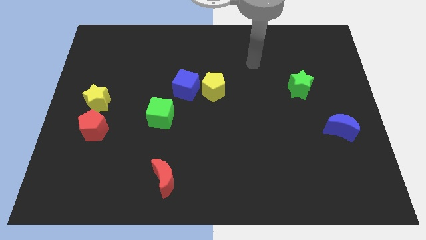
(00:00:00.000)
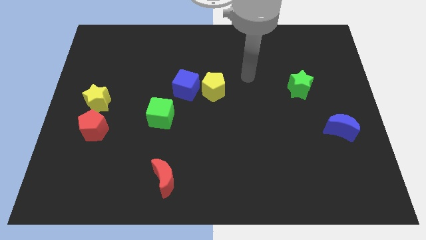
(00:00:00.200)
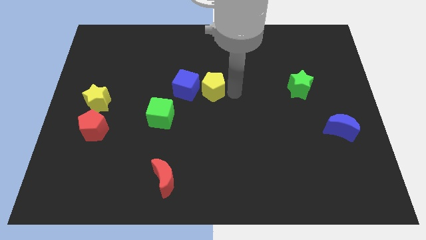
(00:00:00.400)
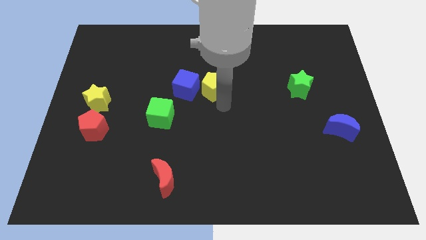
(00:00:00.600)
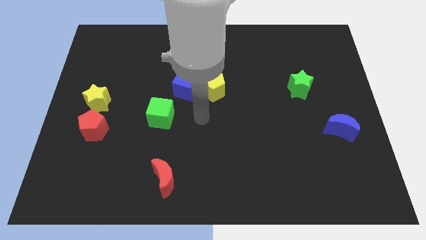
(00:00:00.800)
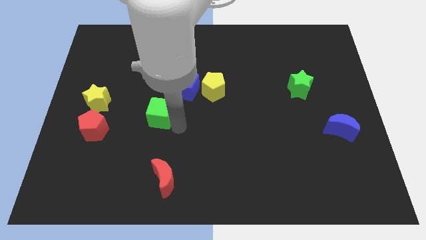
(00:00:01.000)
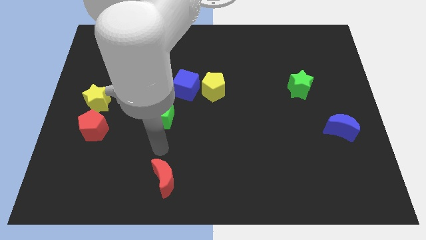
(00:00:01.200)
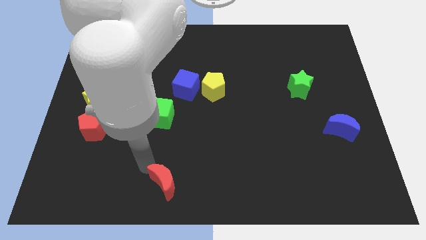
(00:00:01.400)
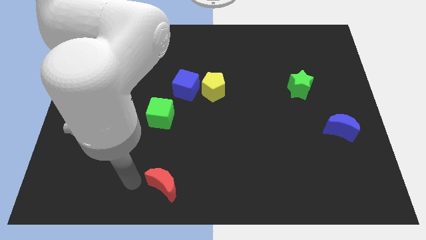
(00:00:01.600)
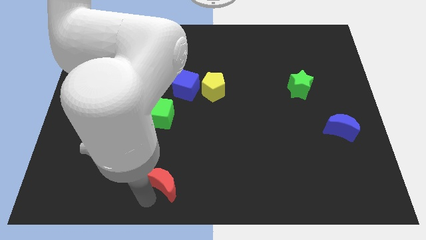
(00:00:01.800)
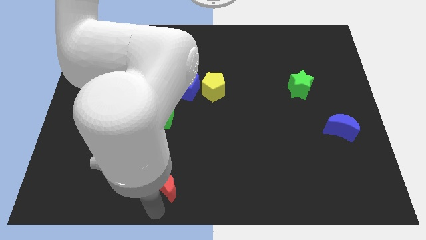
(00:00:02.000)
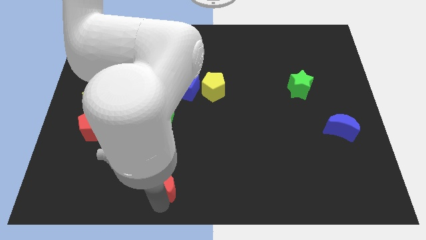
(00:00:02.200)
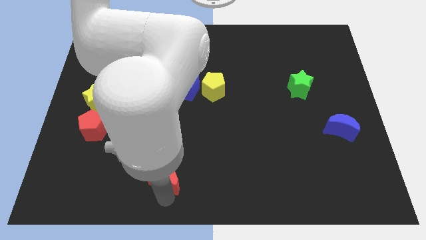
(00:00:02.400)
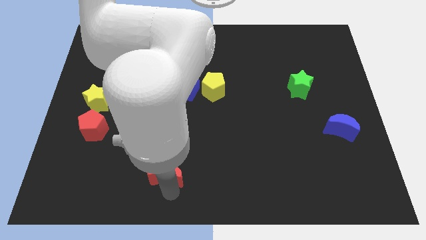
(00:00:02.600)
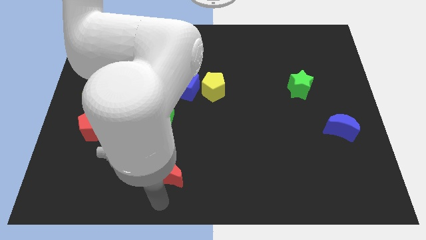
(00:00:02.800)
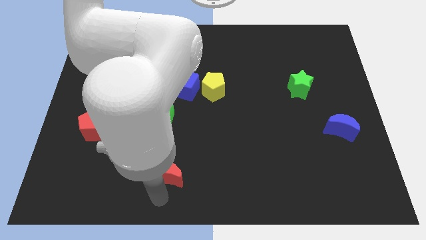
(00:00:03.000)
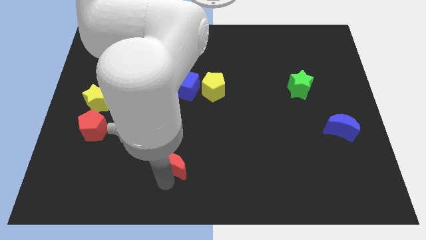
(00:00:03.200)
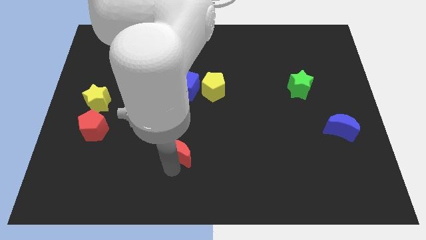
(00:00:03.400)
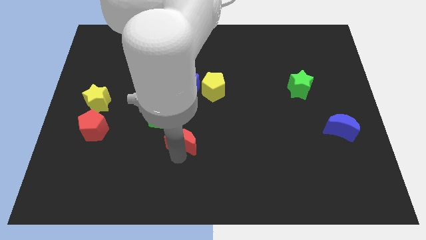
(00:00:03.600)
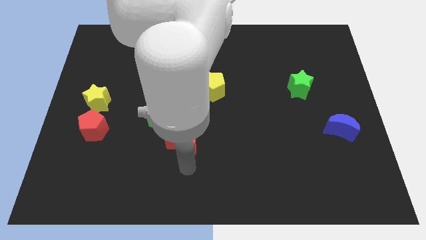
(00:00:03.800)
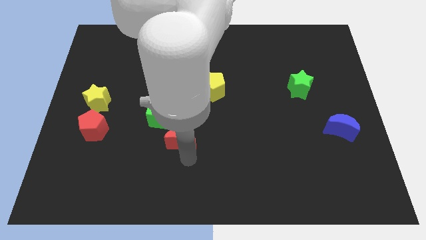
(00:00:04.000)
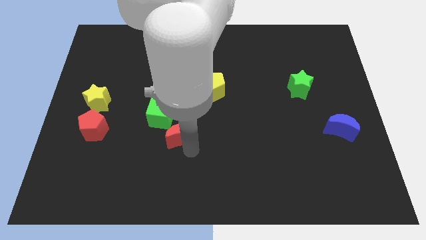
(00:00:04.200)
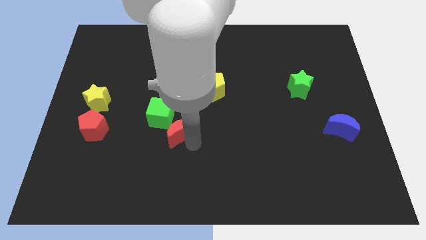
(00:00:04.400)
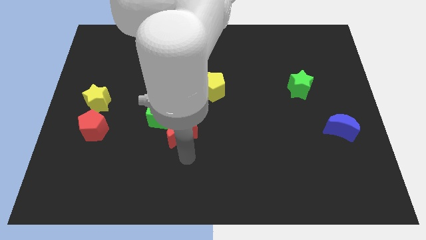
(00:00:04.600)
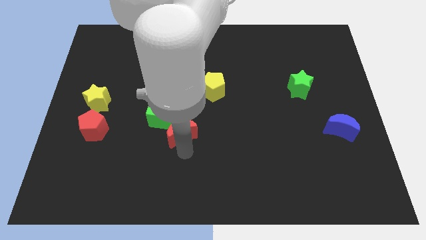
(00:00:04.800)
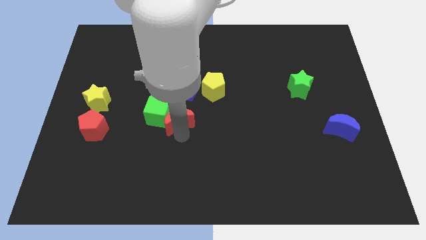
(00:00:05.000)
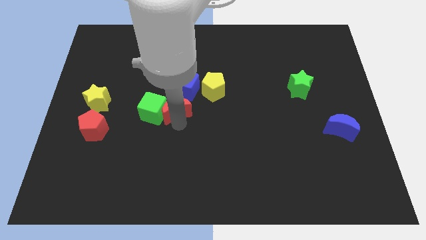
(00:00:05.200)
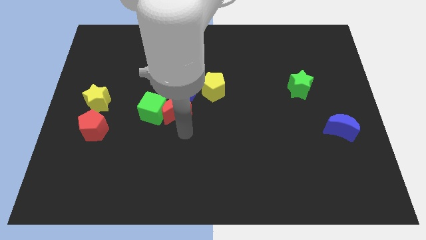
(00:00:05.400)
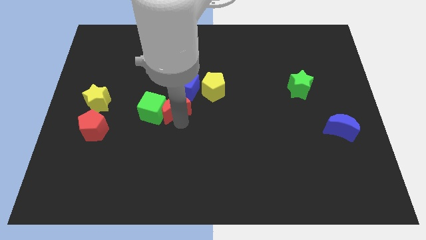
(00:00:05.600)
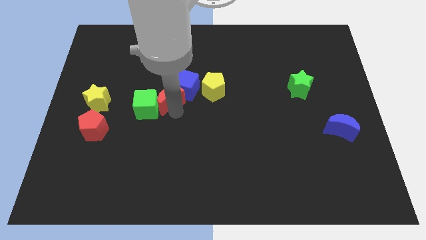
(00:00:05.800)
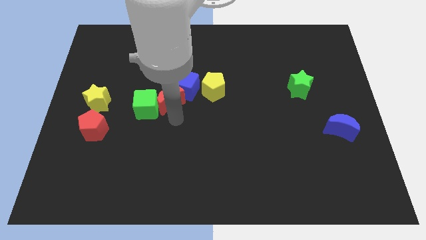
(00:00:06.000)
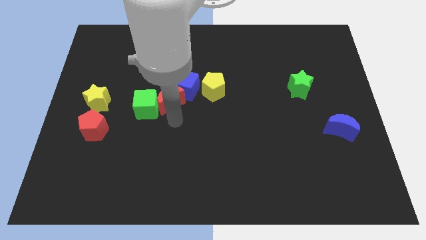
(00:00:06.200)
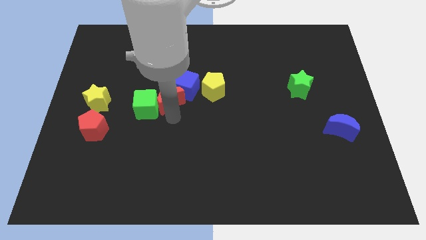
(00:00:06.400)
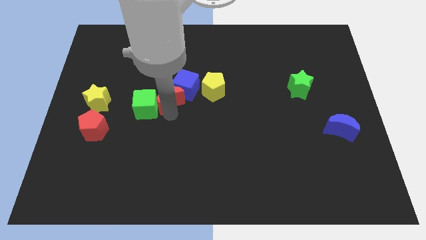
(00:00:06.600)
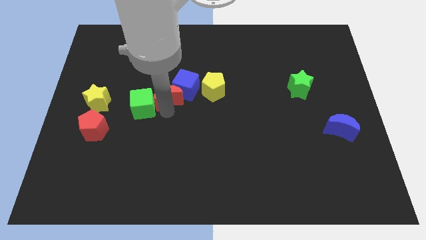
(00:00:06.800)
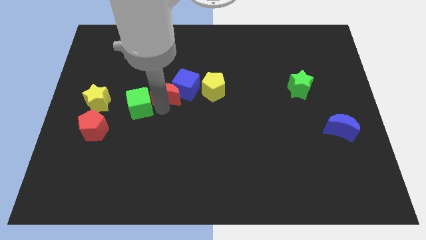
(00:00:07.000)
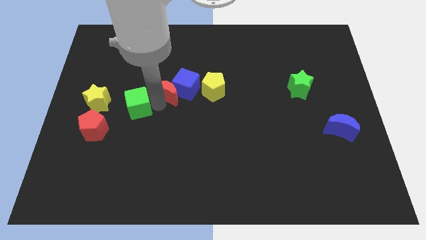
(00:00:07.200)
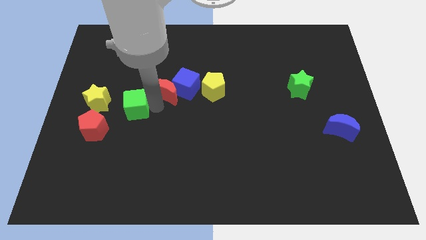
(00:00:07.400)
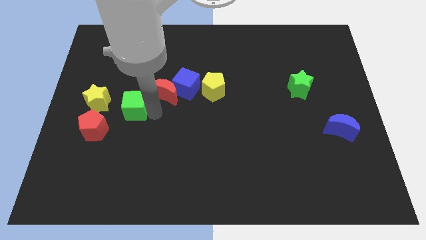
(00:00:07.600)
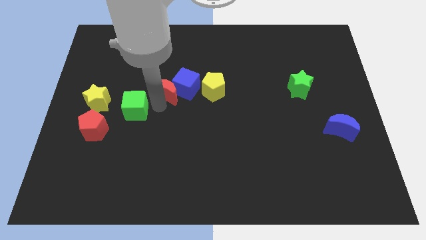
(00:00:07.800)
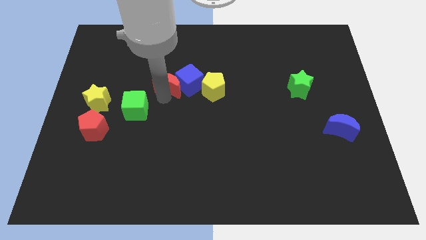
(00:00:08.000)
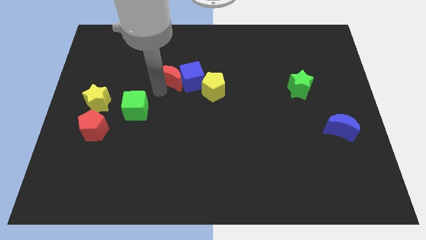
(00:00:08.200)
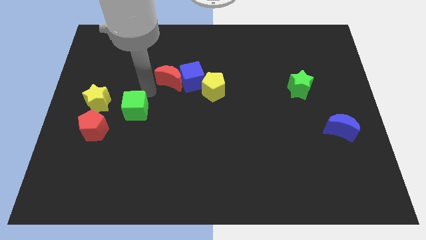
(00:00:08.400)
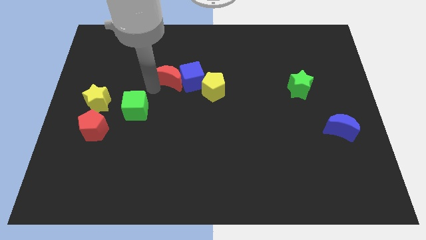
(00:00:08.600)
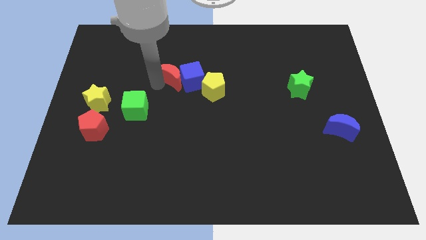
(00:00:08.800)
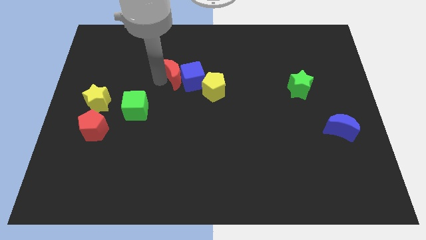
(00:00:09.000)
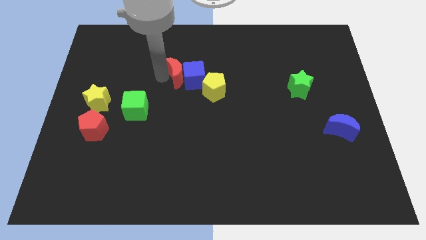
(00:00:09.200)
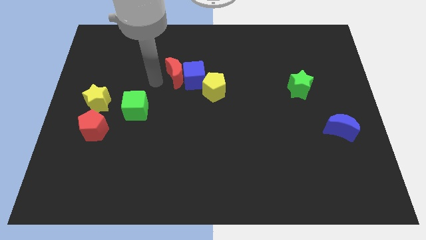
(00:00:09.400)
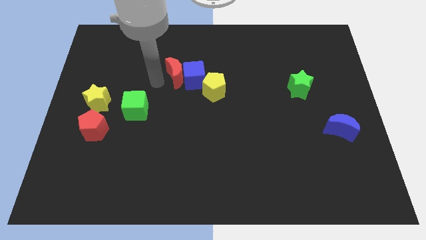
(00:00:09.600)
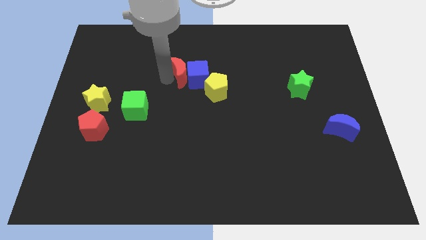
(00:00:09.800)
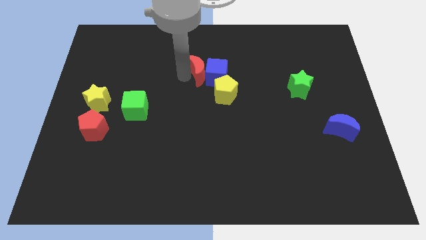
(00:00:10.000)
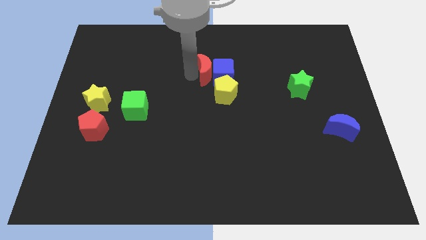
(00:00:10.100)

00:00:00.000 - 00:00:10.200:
put the red moon to the top side of the yellow pentagon

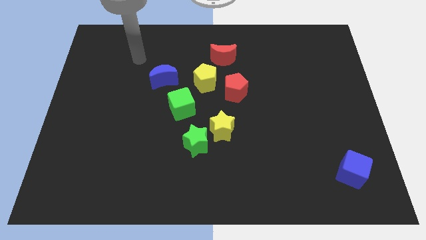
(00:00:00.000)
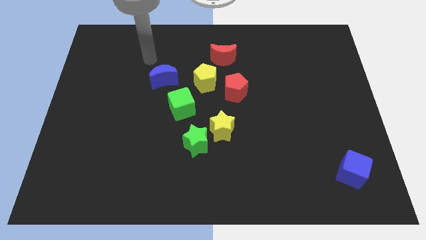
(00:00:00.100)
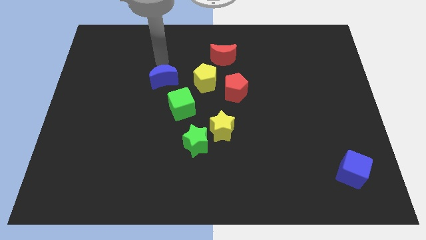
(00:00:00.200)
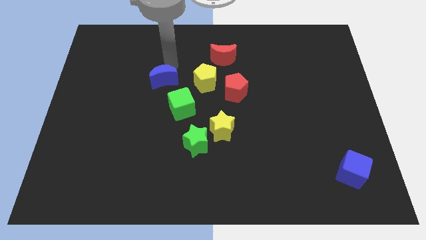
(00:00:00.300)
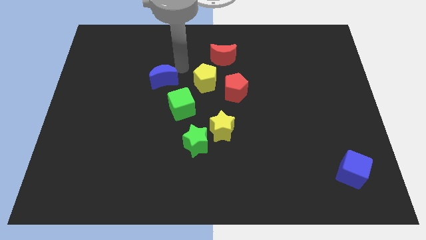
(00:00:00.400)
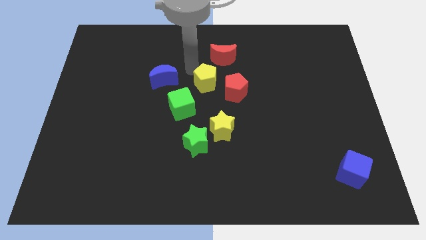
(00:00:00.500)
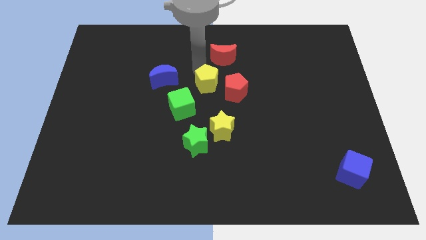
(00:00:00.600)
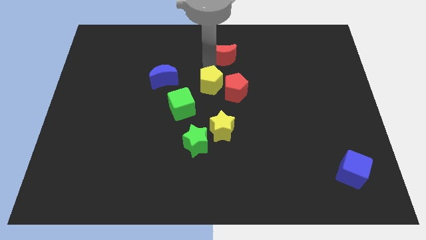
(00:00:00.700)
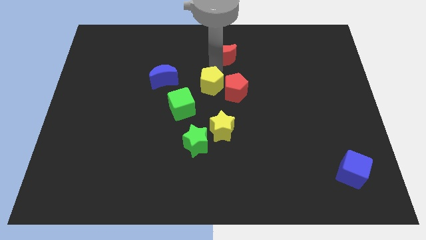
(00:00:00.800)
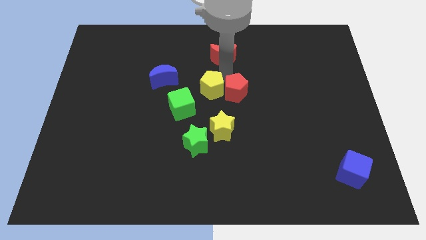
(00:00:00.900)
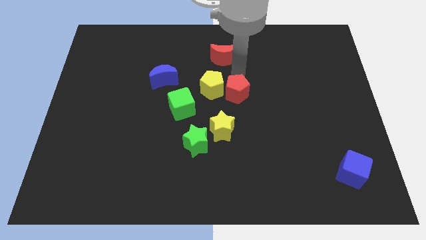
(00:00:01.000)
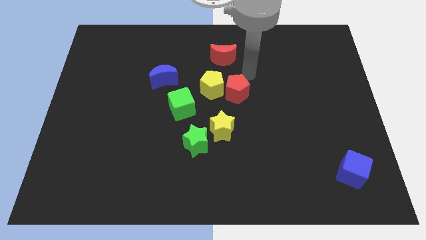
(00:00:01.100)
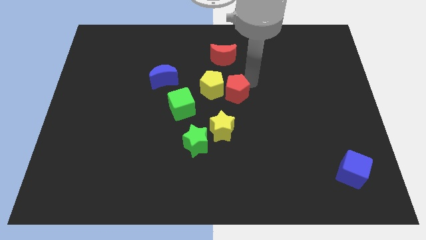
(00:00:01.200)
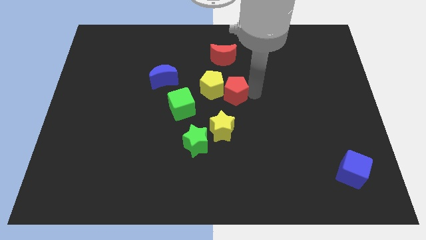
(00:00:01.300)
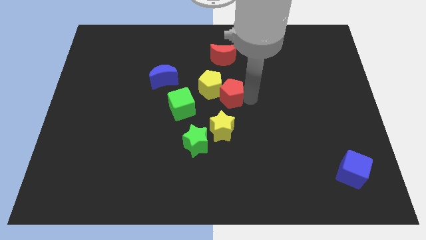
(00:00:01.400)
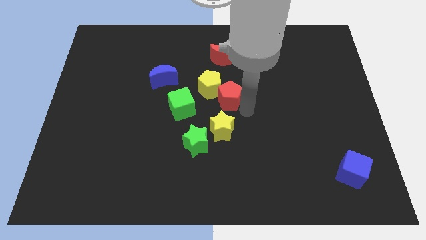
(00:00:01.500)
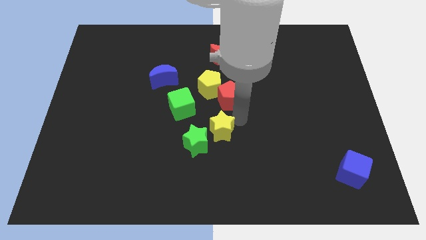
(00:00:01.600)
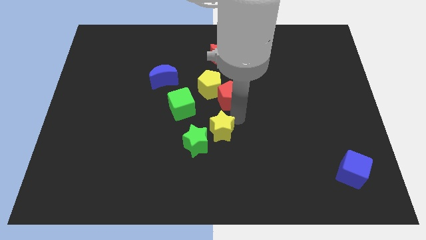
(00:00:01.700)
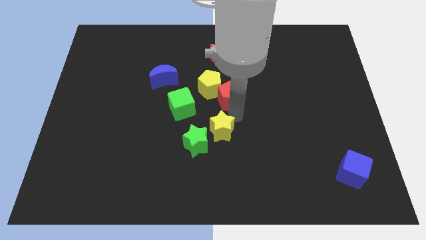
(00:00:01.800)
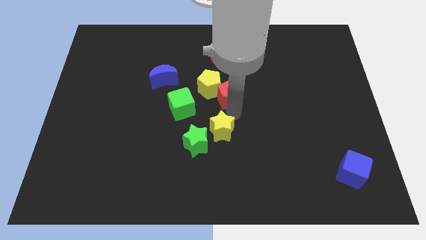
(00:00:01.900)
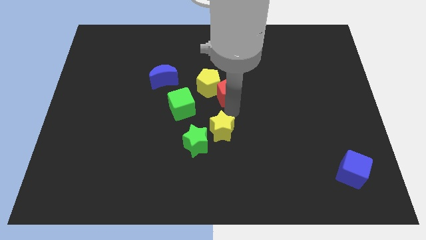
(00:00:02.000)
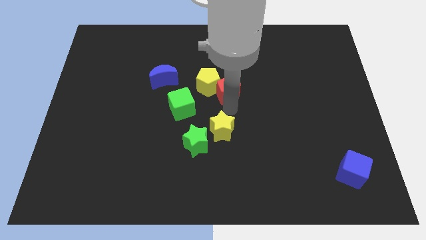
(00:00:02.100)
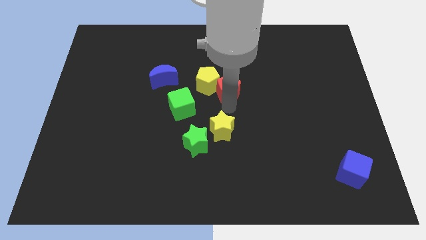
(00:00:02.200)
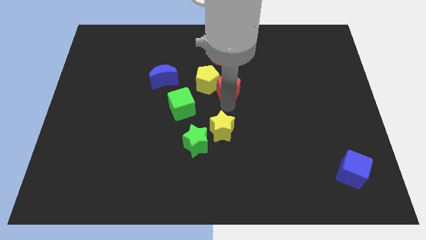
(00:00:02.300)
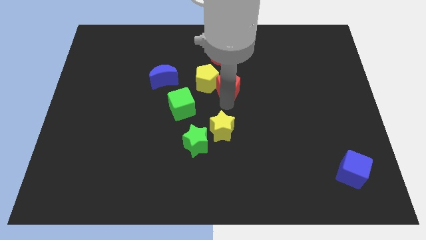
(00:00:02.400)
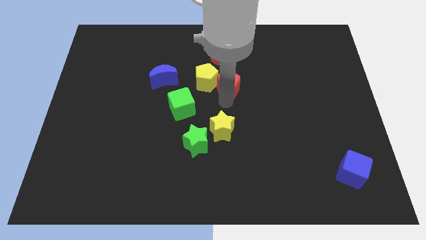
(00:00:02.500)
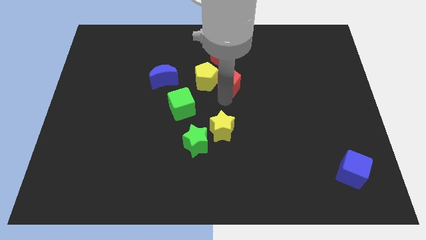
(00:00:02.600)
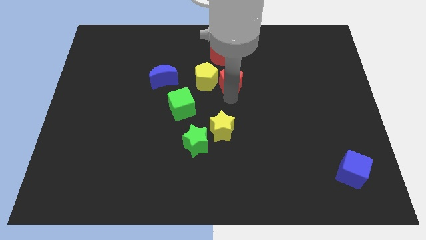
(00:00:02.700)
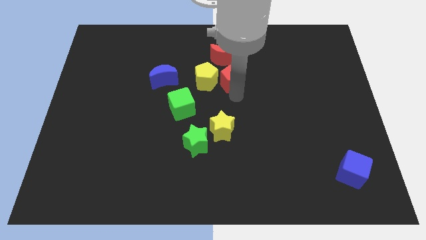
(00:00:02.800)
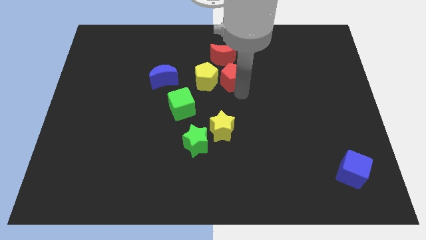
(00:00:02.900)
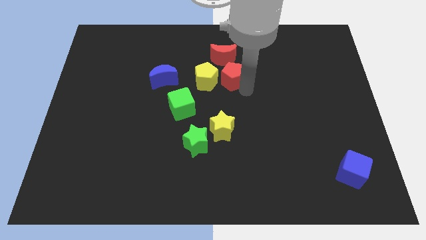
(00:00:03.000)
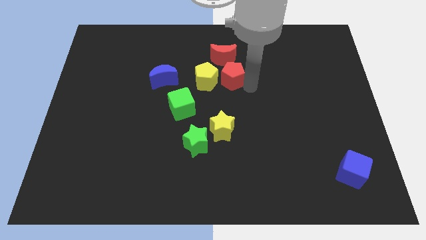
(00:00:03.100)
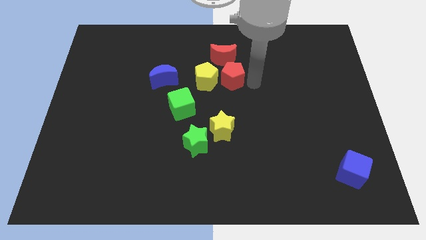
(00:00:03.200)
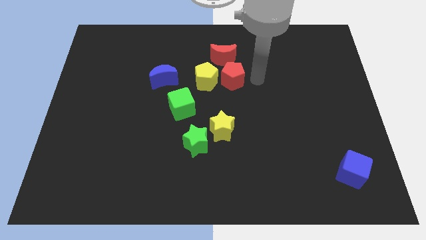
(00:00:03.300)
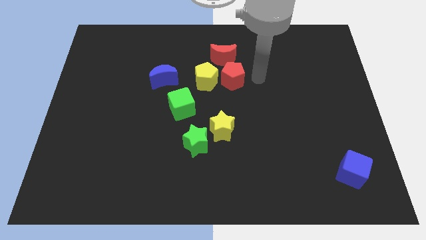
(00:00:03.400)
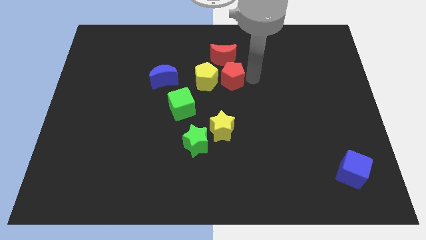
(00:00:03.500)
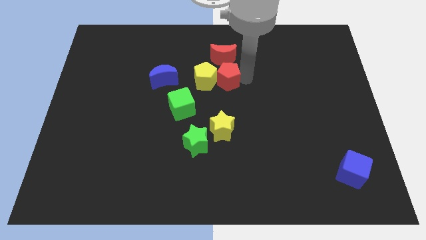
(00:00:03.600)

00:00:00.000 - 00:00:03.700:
push the red pentagon right of the blue moon
